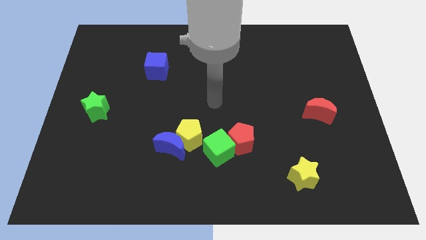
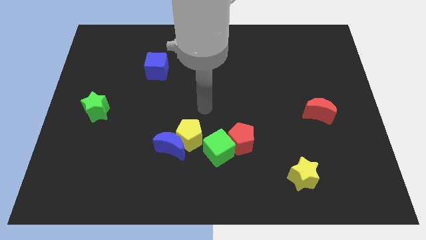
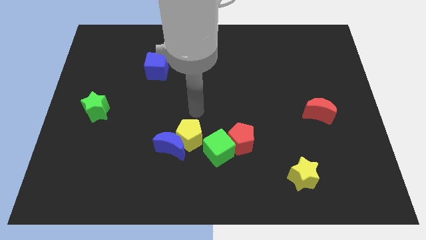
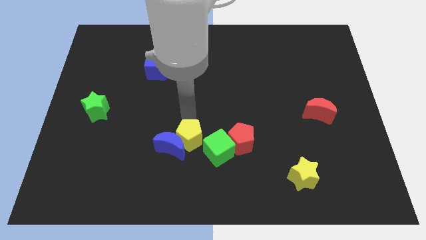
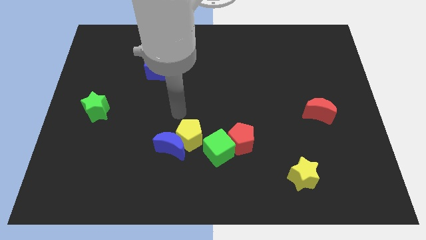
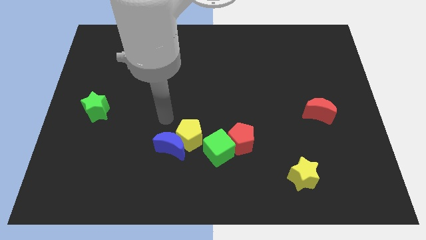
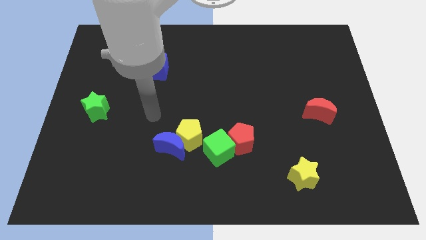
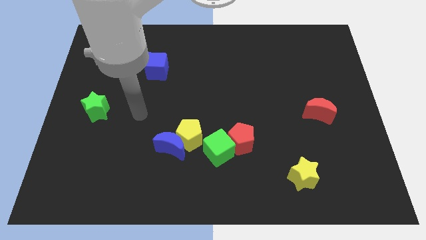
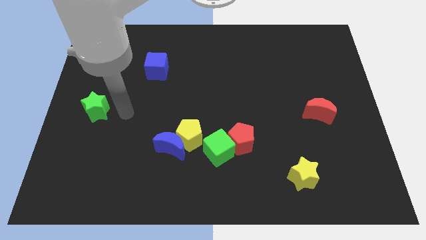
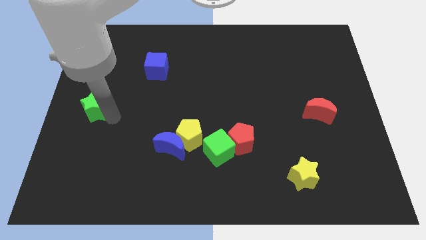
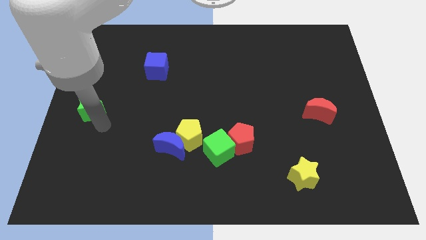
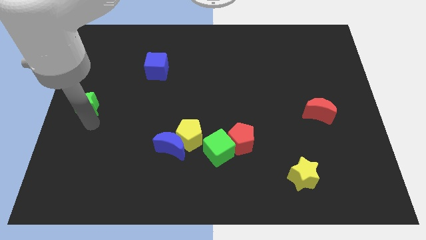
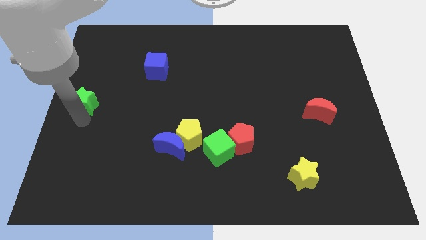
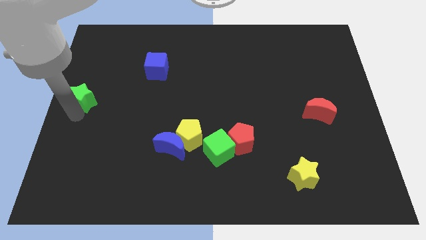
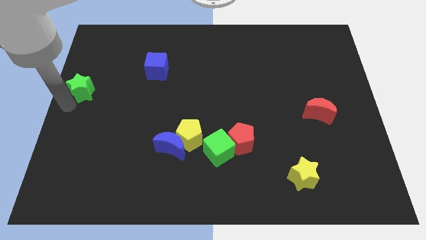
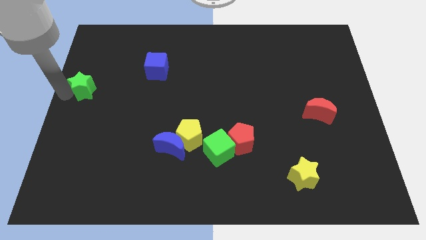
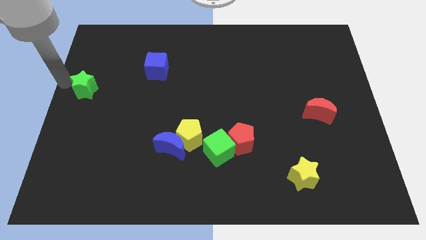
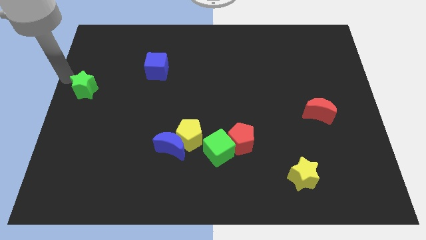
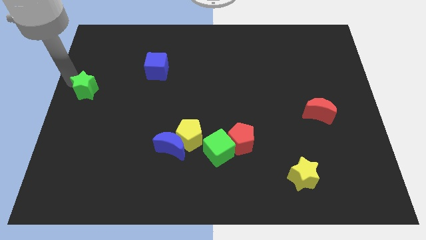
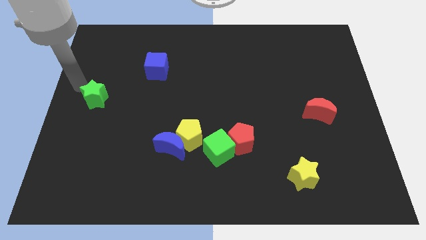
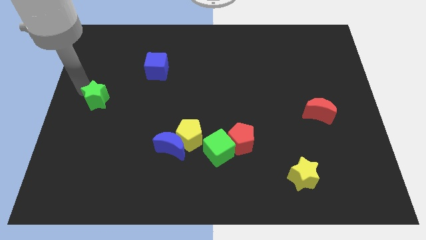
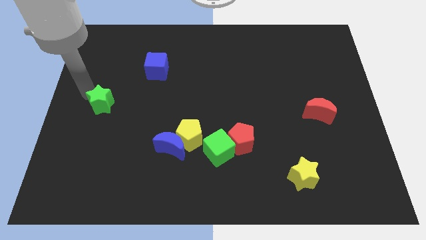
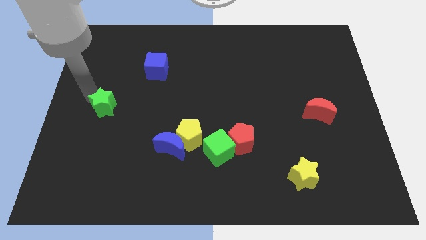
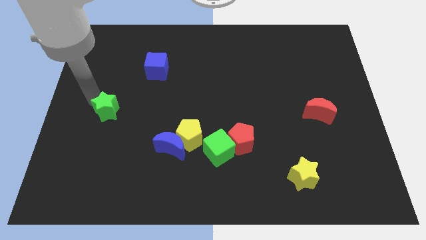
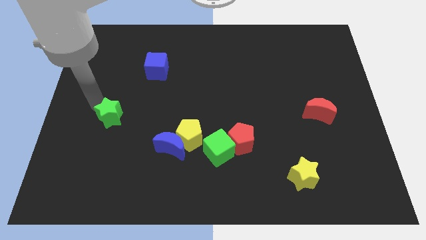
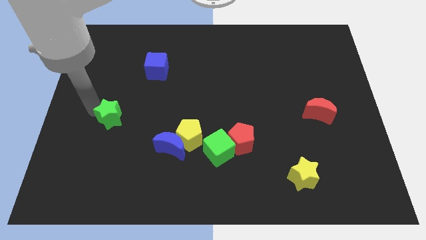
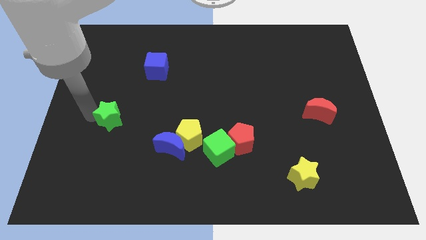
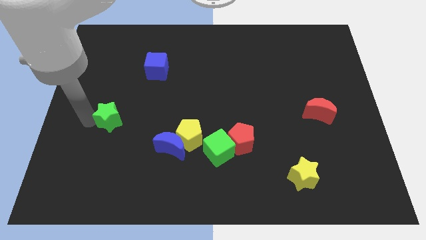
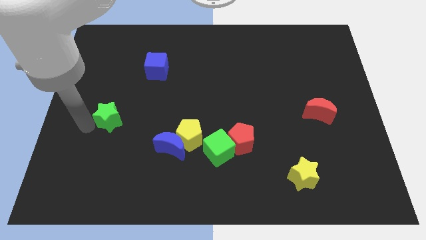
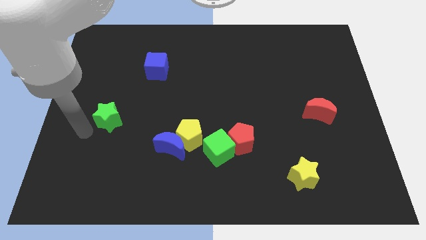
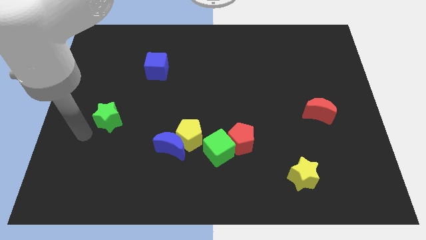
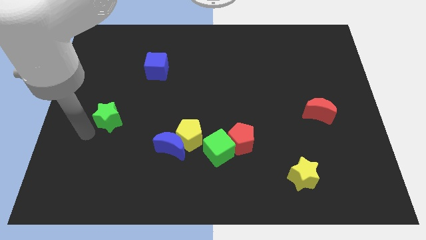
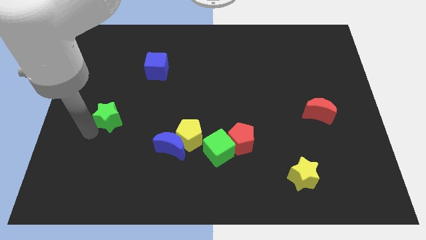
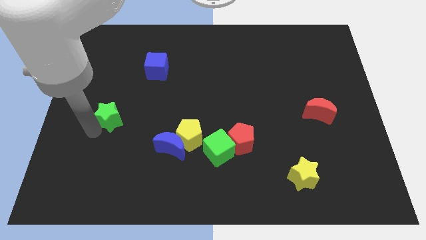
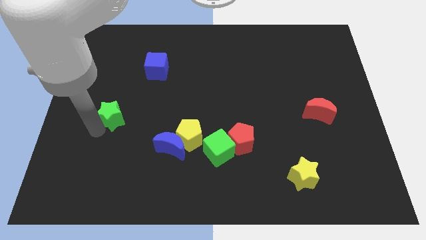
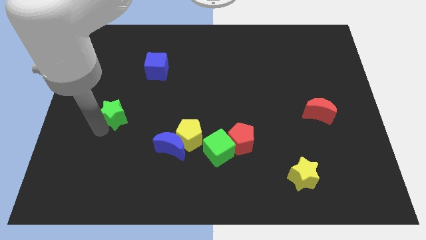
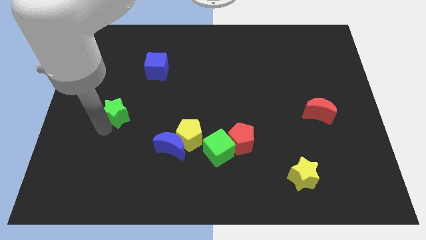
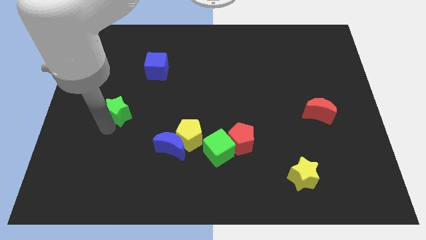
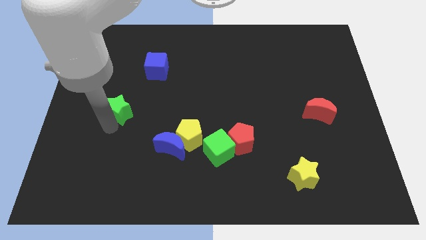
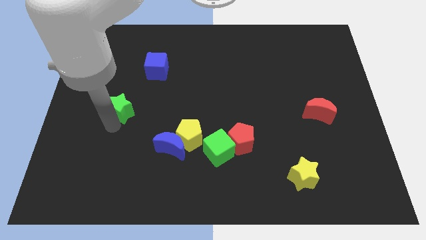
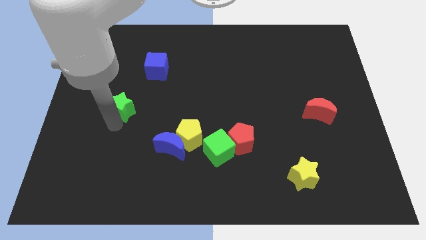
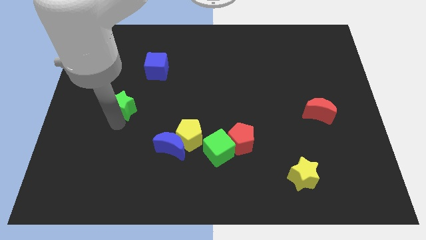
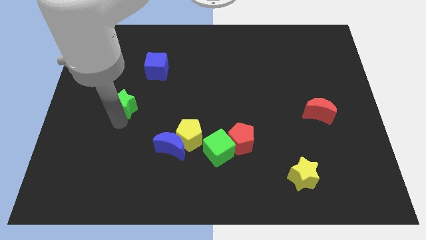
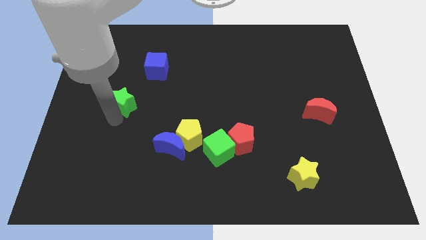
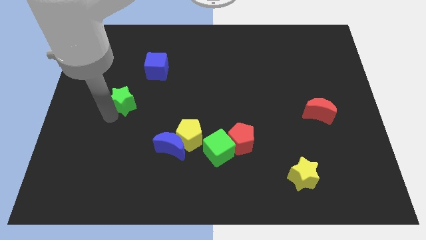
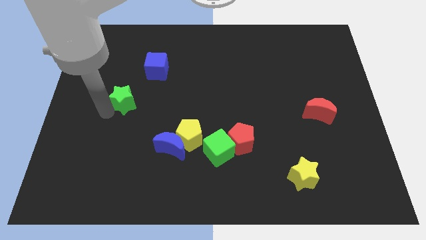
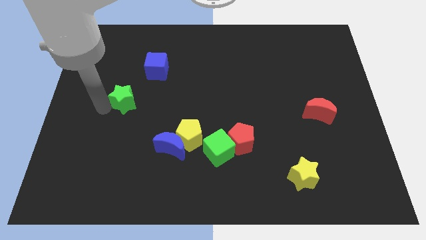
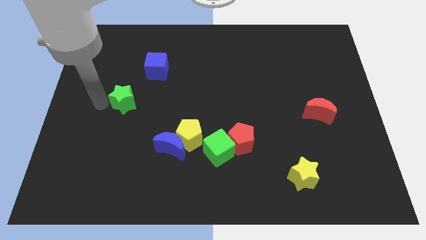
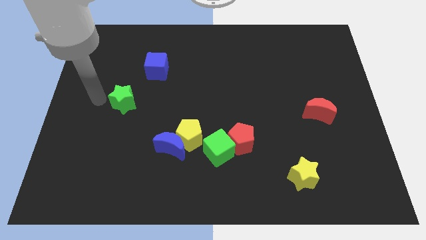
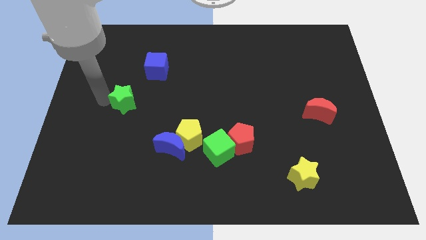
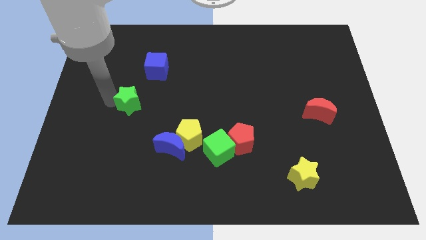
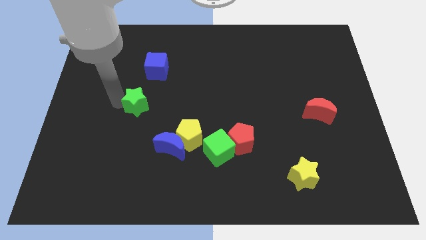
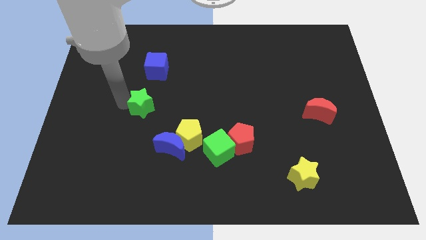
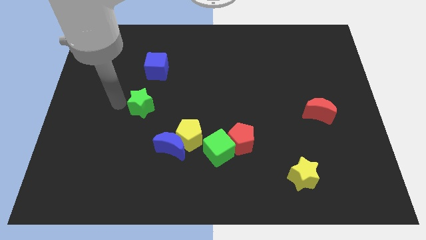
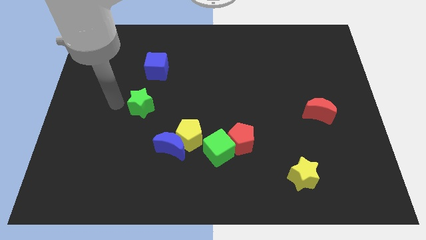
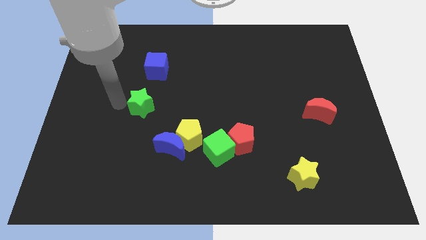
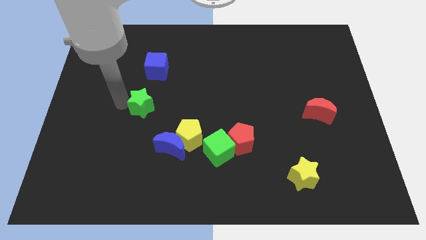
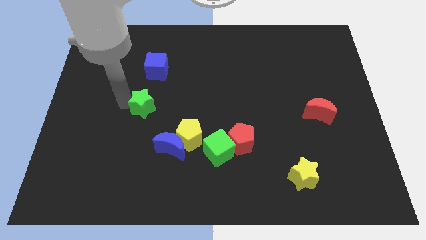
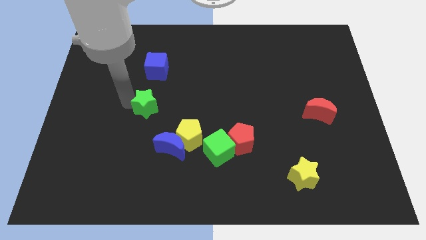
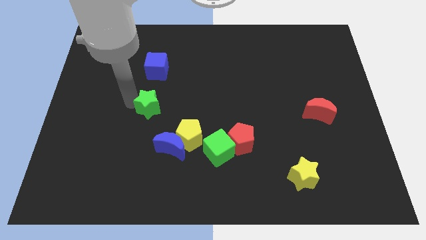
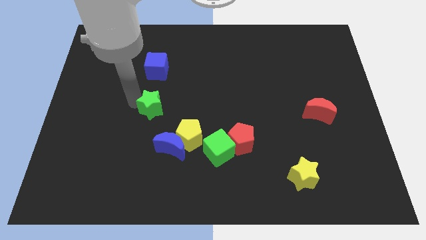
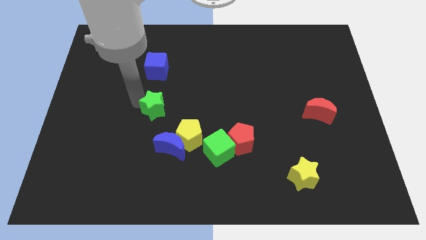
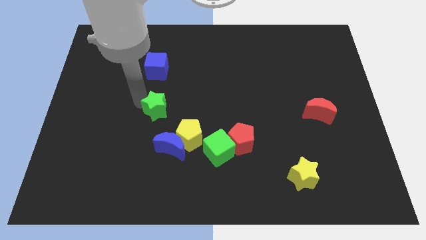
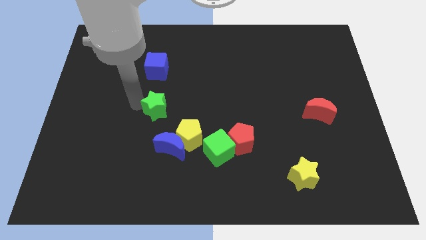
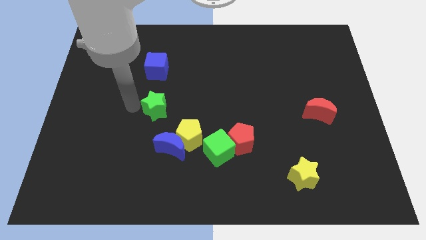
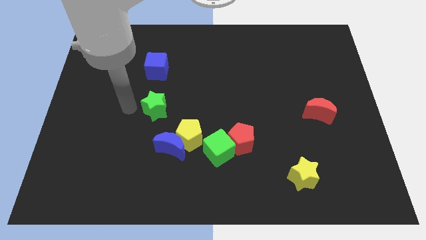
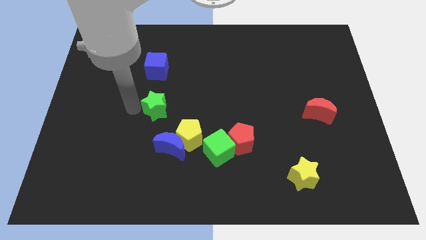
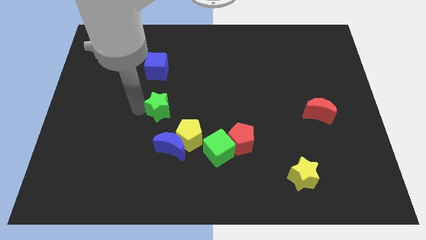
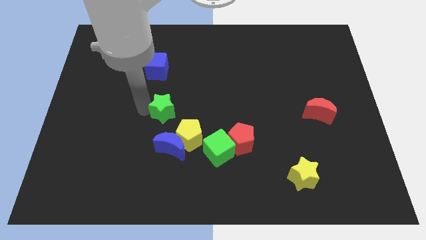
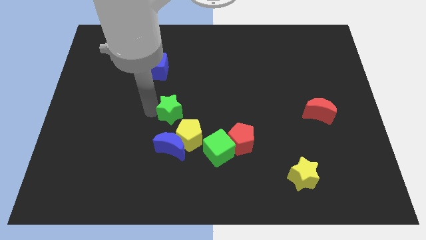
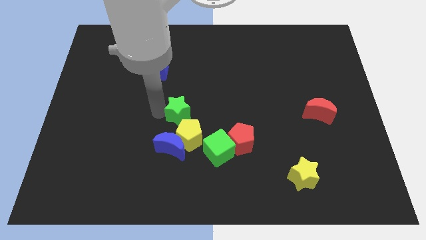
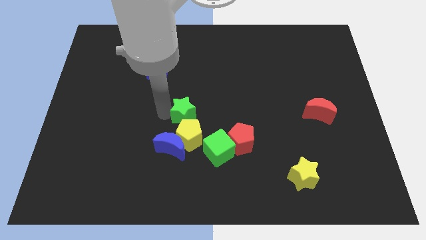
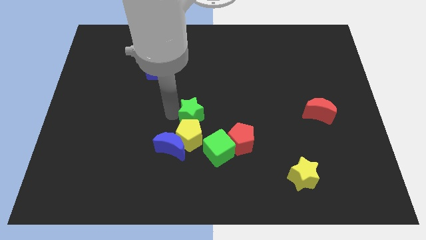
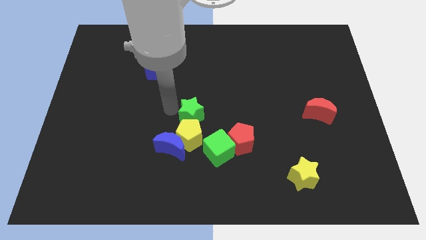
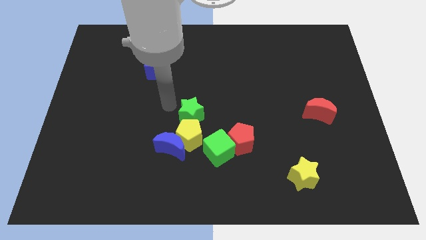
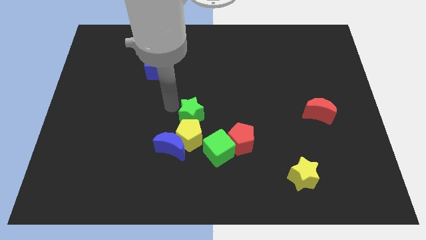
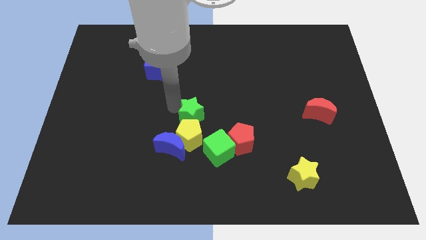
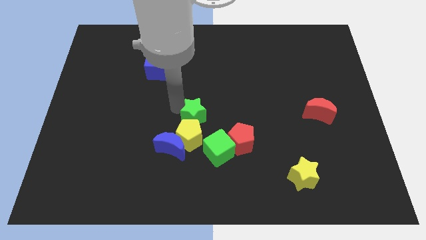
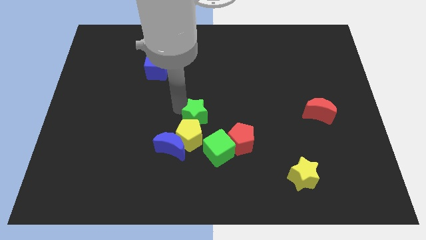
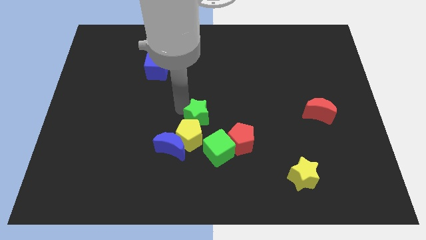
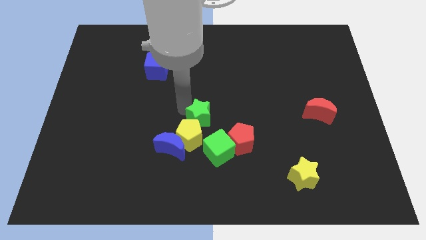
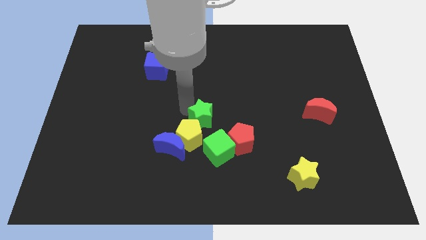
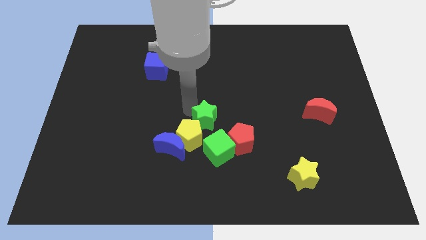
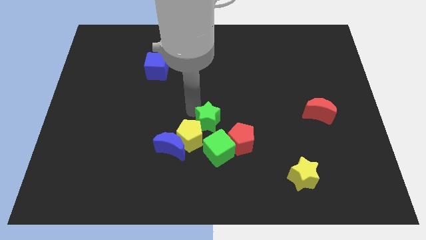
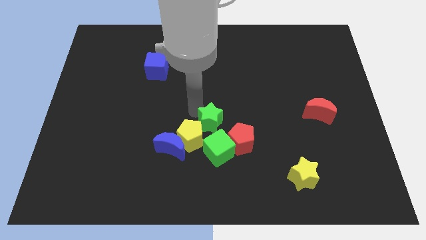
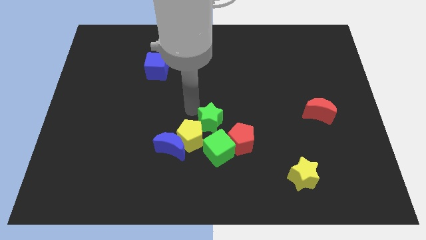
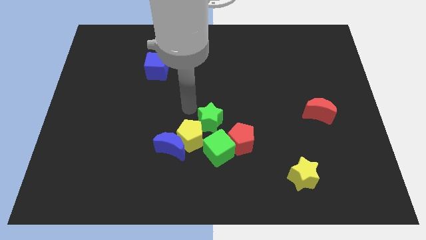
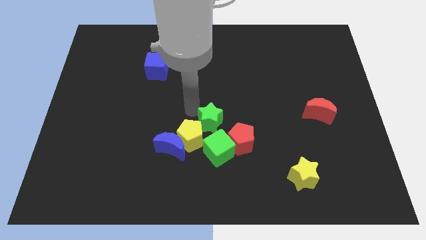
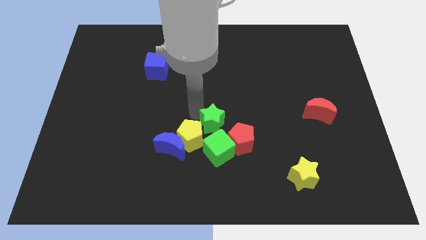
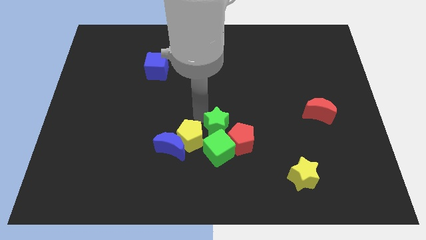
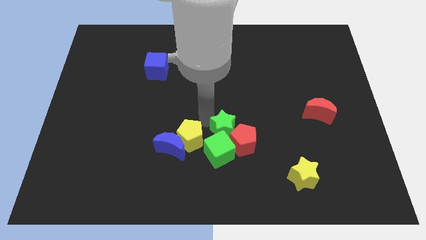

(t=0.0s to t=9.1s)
push the green star next to the red pentagon
